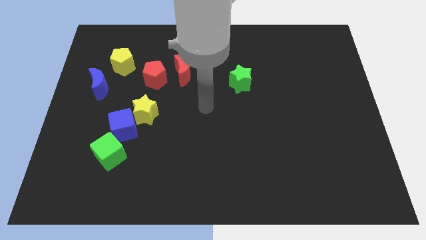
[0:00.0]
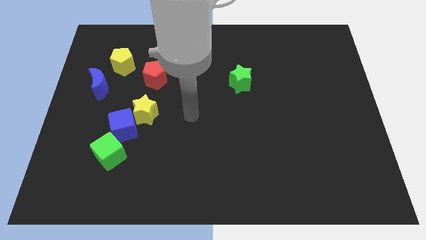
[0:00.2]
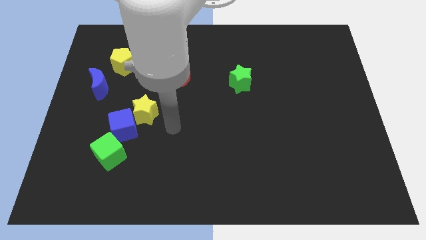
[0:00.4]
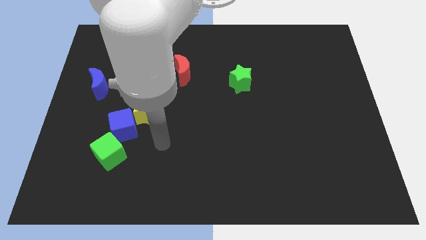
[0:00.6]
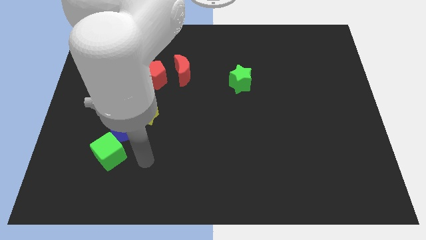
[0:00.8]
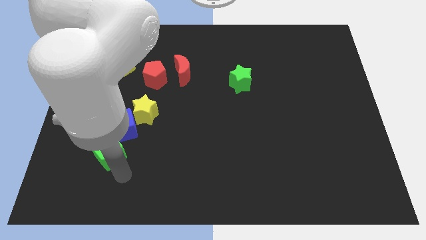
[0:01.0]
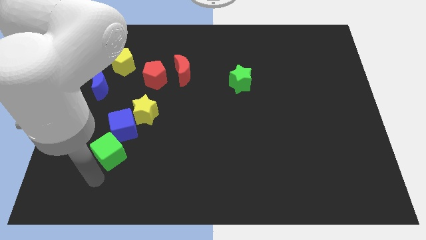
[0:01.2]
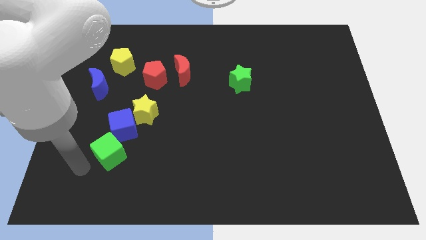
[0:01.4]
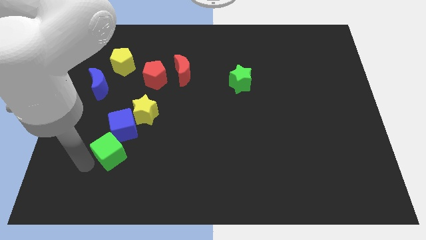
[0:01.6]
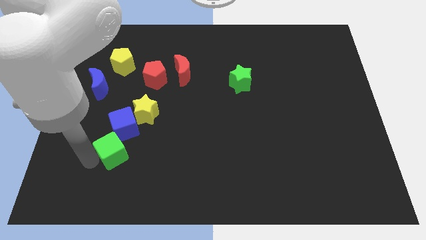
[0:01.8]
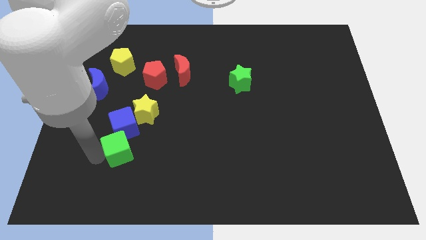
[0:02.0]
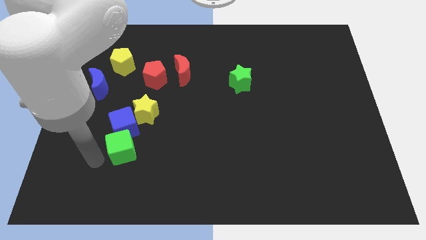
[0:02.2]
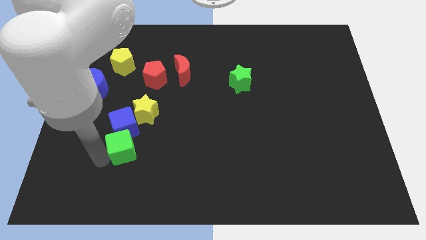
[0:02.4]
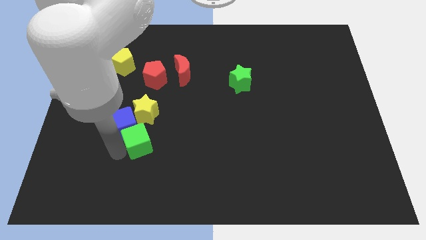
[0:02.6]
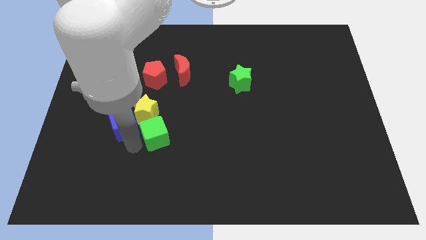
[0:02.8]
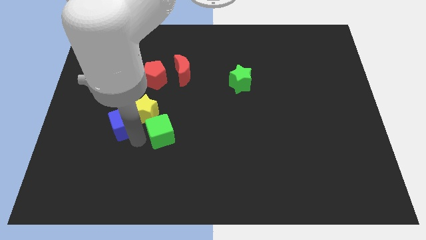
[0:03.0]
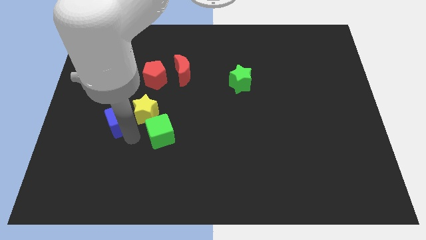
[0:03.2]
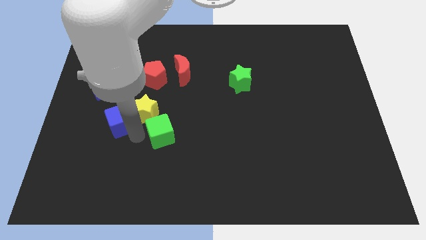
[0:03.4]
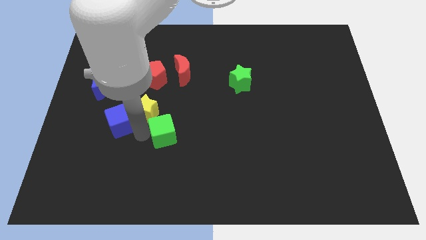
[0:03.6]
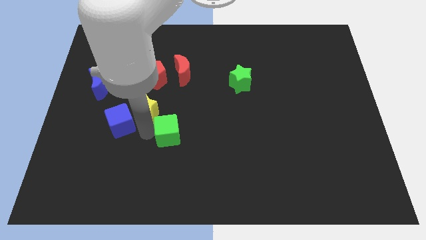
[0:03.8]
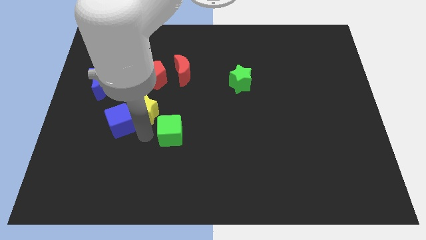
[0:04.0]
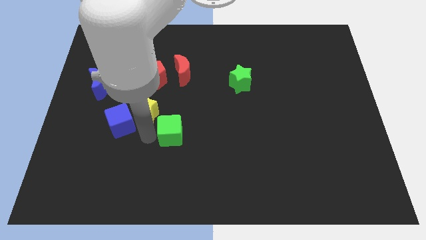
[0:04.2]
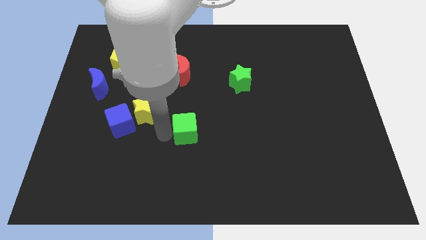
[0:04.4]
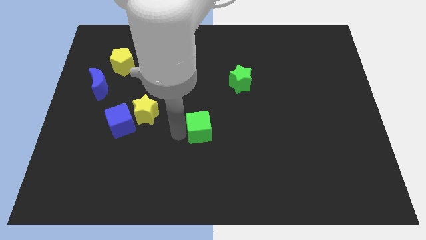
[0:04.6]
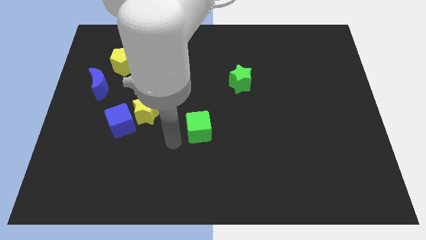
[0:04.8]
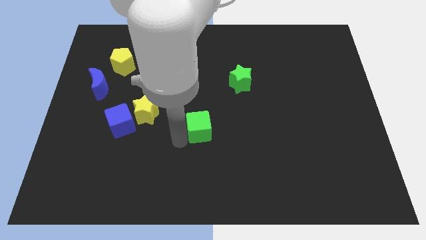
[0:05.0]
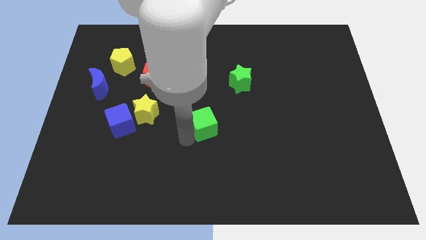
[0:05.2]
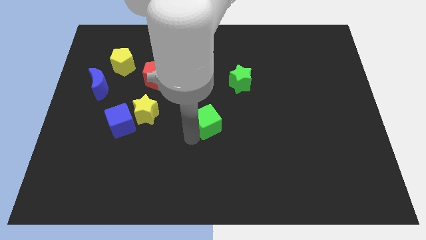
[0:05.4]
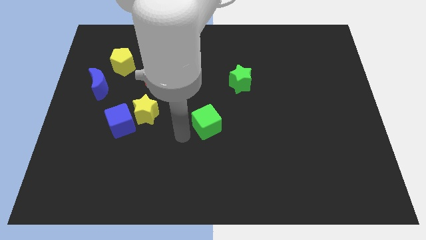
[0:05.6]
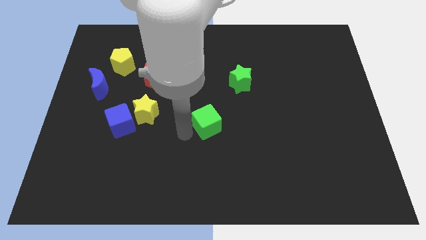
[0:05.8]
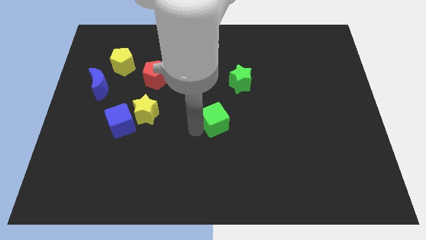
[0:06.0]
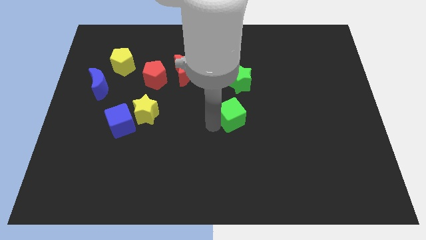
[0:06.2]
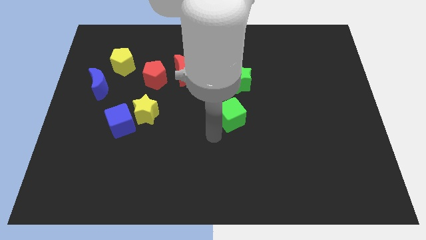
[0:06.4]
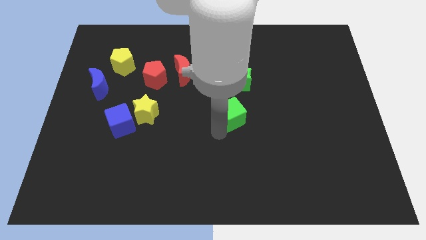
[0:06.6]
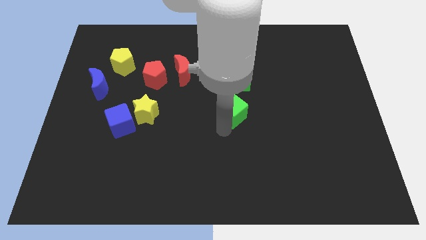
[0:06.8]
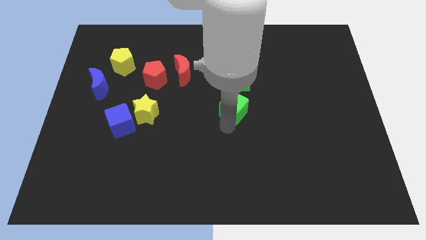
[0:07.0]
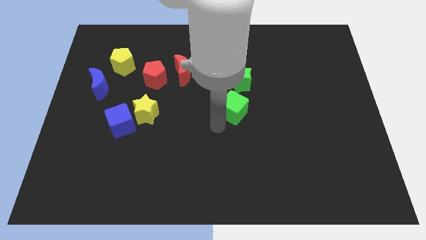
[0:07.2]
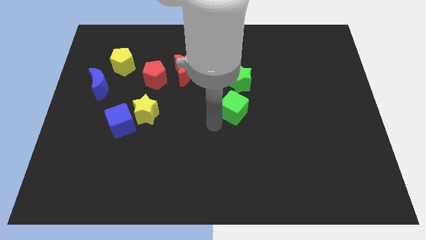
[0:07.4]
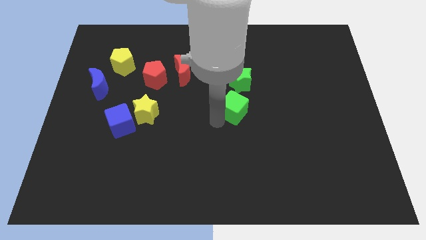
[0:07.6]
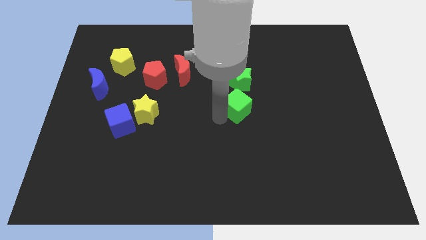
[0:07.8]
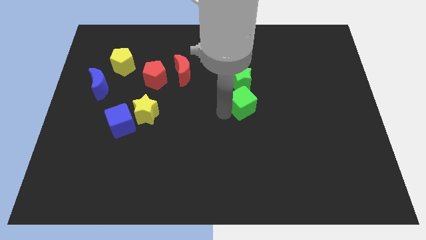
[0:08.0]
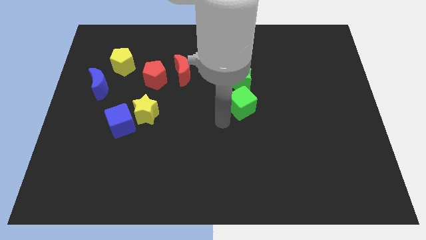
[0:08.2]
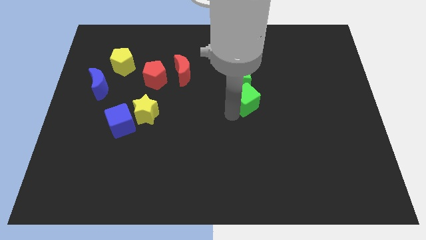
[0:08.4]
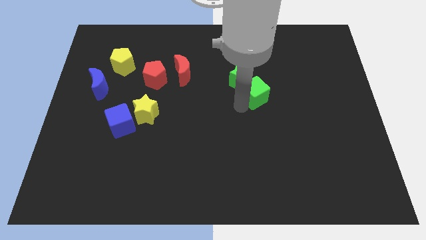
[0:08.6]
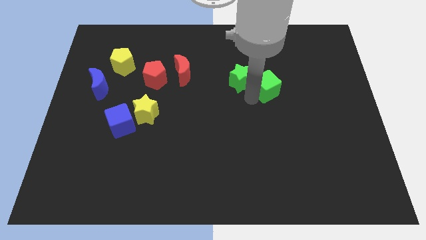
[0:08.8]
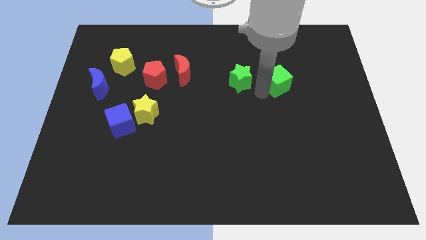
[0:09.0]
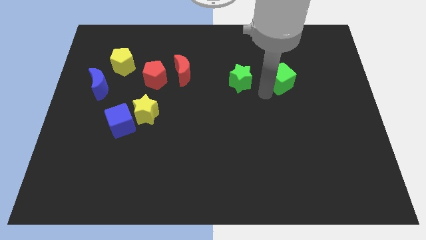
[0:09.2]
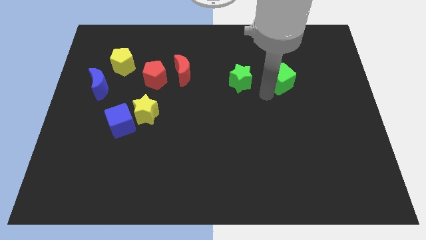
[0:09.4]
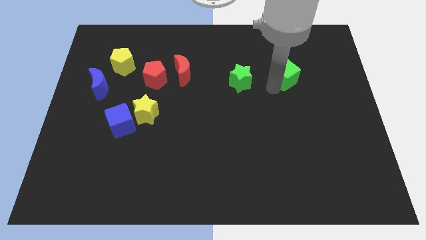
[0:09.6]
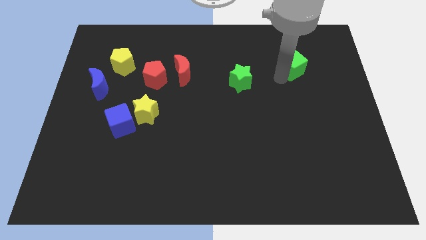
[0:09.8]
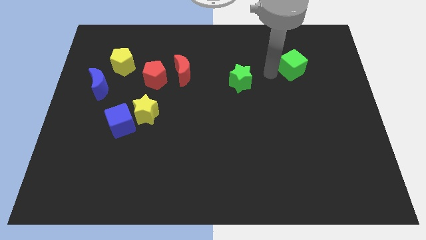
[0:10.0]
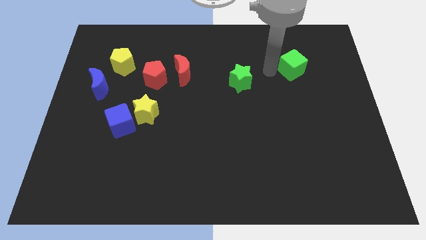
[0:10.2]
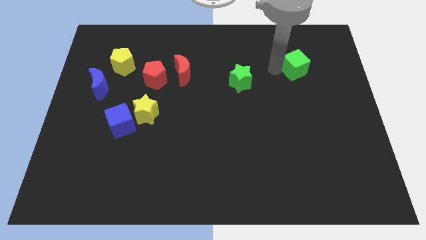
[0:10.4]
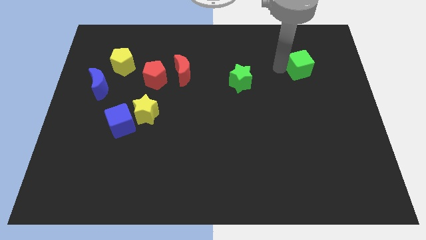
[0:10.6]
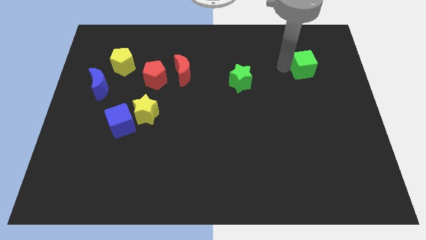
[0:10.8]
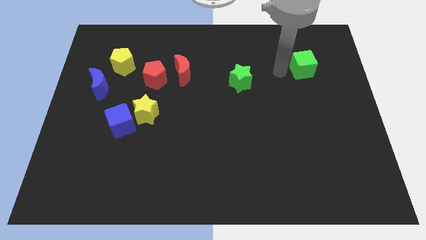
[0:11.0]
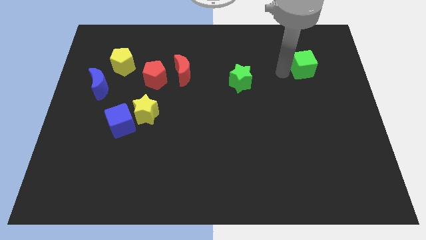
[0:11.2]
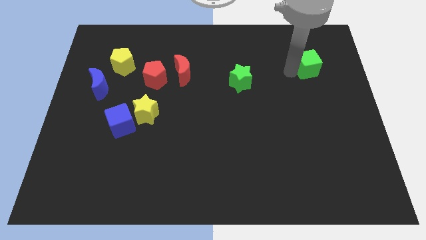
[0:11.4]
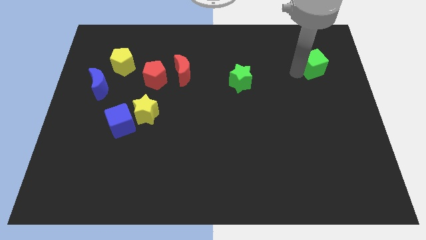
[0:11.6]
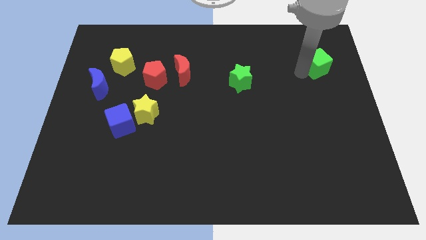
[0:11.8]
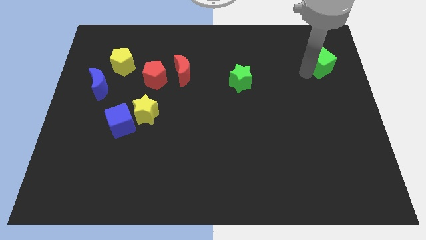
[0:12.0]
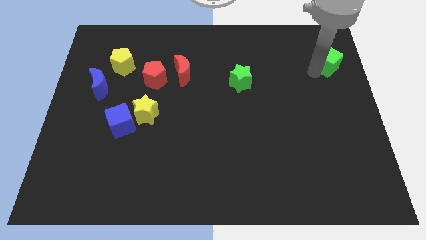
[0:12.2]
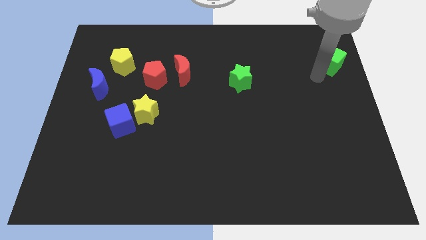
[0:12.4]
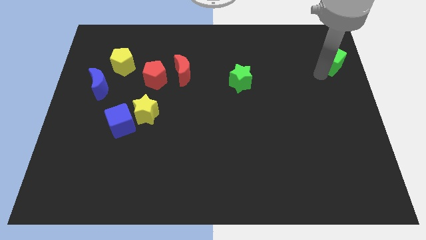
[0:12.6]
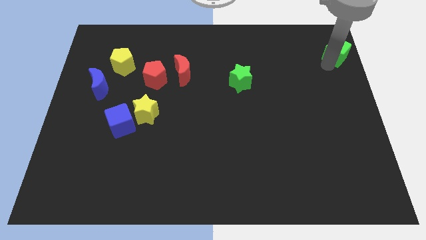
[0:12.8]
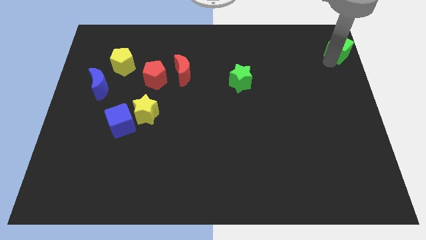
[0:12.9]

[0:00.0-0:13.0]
put the green cube to the top right of the board
